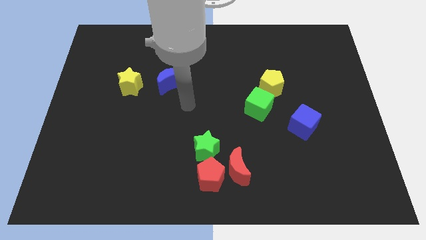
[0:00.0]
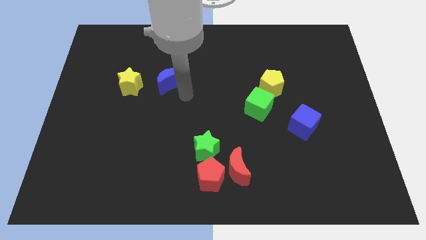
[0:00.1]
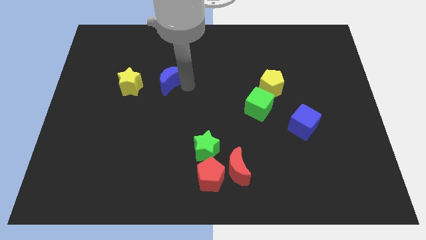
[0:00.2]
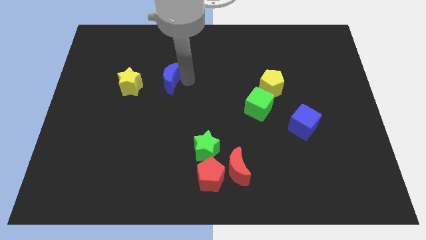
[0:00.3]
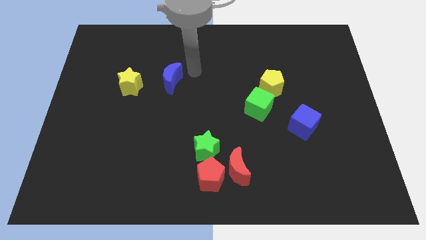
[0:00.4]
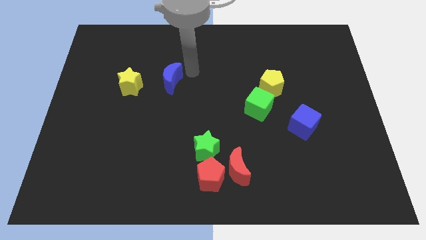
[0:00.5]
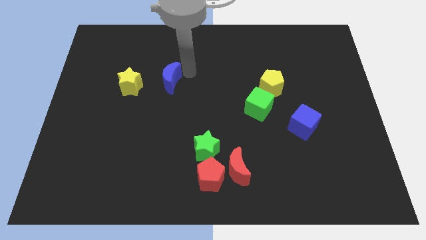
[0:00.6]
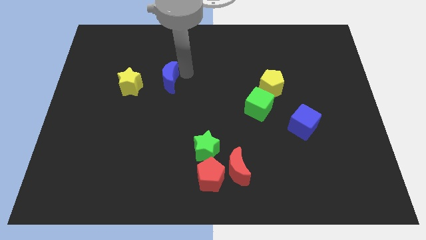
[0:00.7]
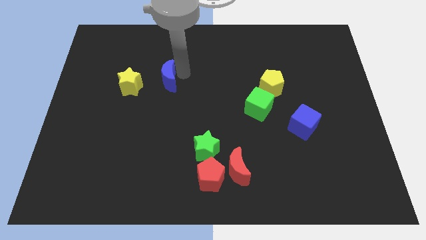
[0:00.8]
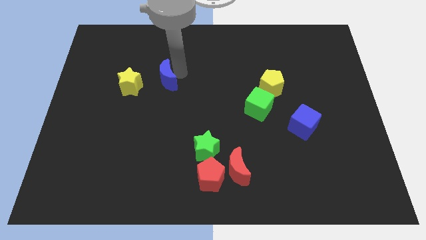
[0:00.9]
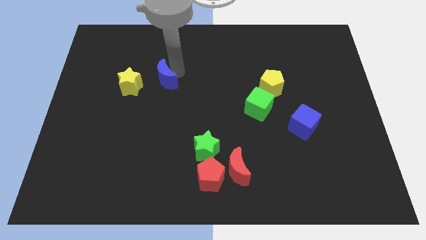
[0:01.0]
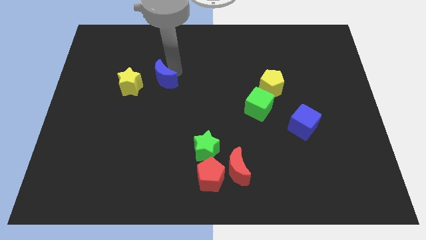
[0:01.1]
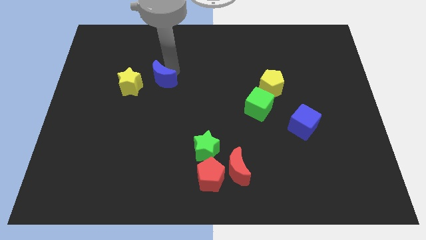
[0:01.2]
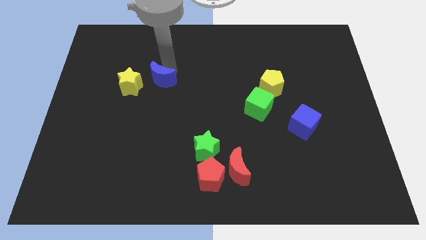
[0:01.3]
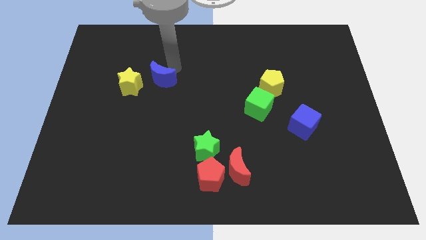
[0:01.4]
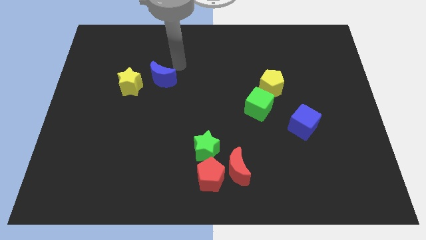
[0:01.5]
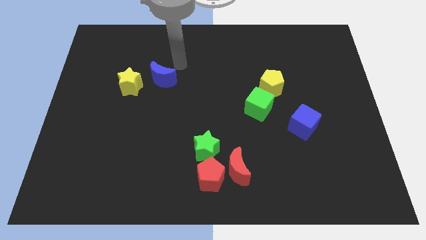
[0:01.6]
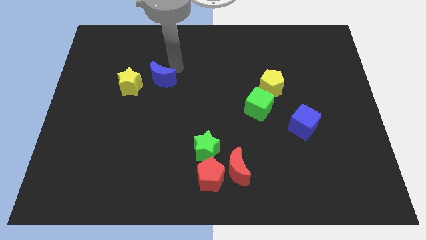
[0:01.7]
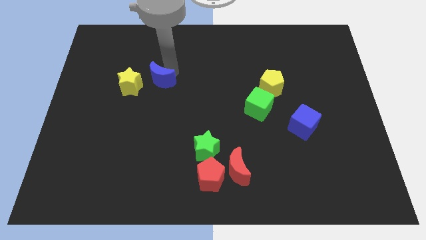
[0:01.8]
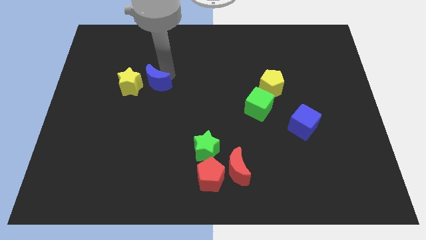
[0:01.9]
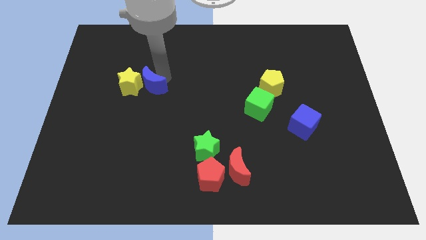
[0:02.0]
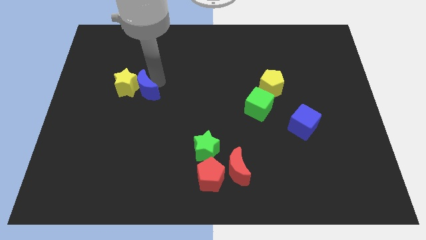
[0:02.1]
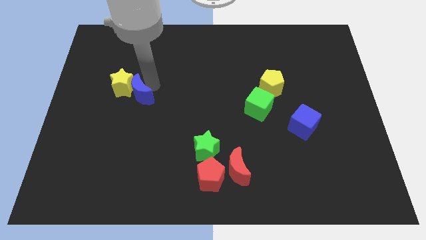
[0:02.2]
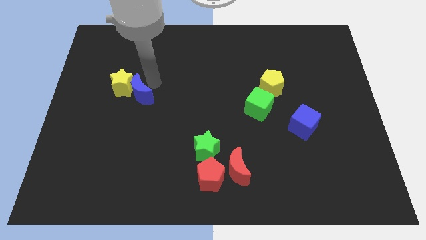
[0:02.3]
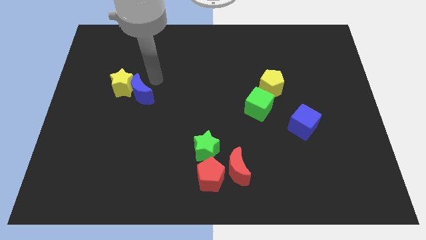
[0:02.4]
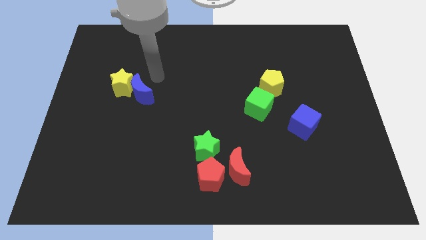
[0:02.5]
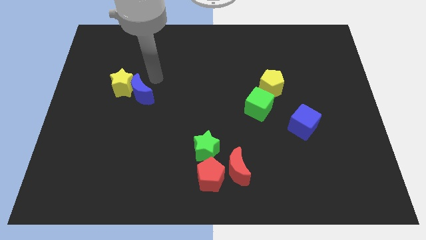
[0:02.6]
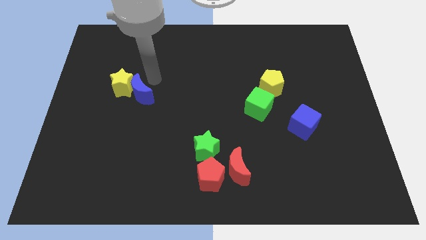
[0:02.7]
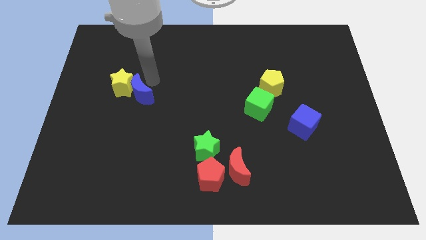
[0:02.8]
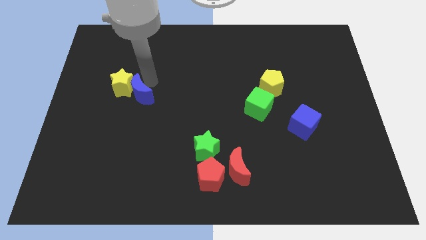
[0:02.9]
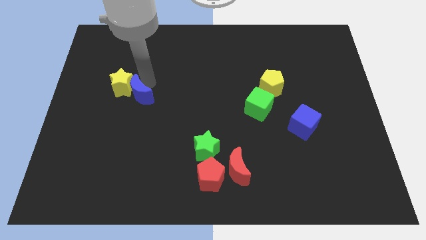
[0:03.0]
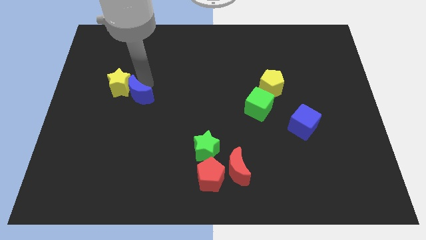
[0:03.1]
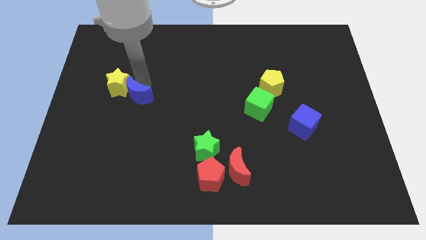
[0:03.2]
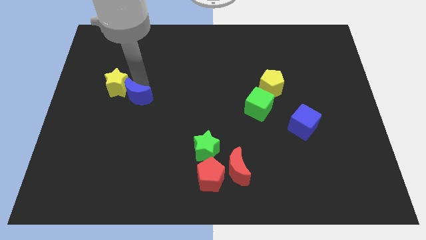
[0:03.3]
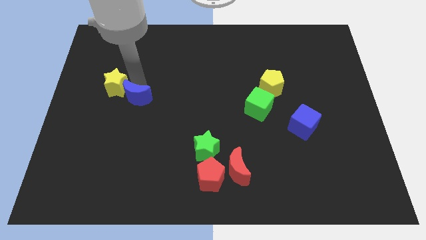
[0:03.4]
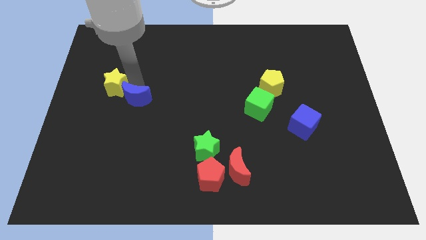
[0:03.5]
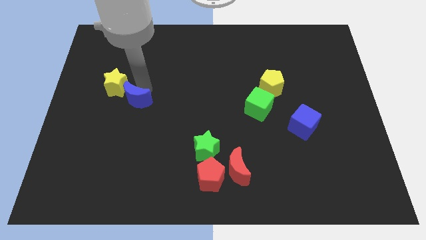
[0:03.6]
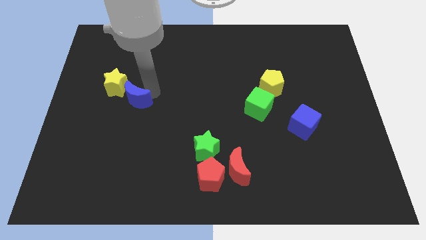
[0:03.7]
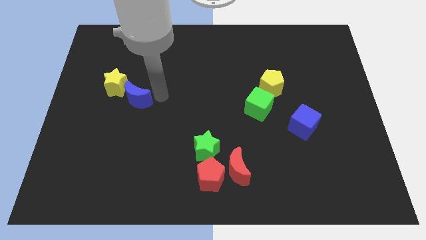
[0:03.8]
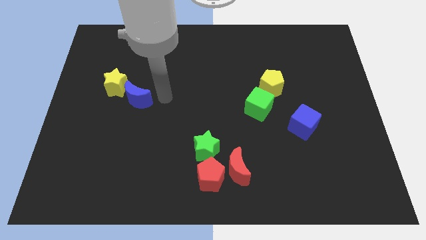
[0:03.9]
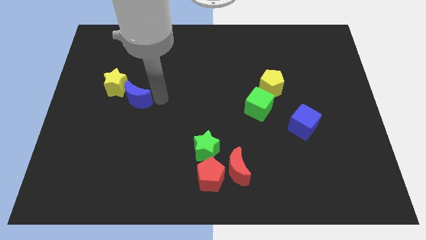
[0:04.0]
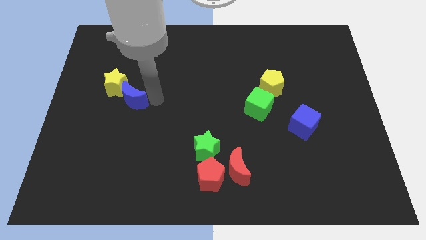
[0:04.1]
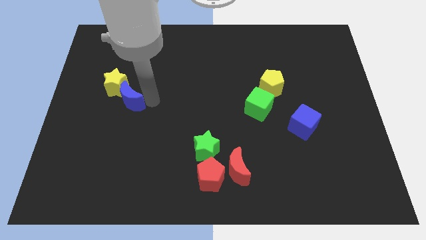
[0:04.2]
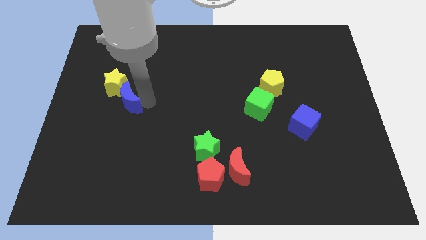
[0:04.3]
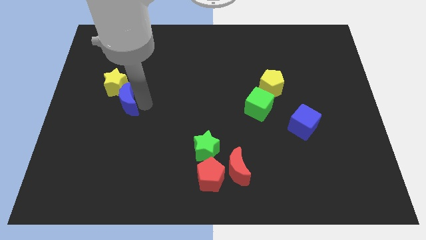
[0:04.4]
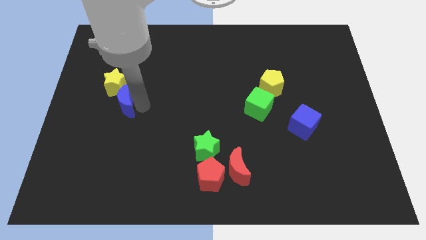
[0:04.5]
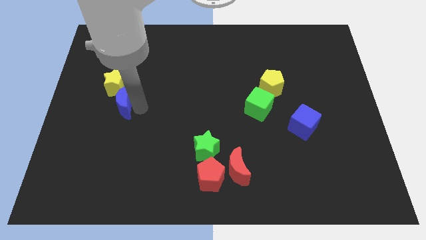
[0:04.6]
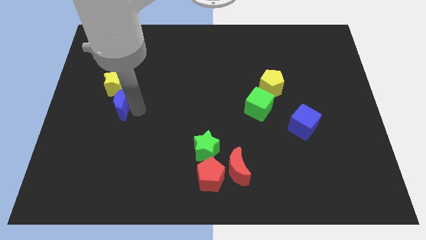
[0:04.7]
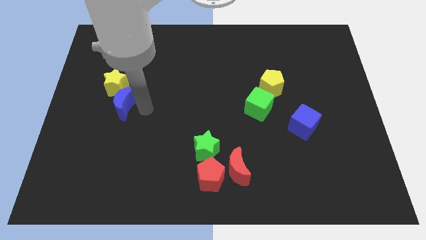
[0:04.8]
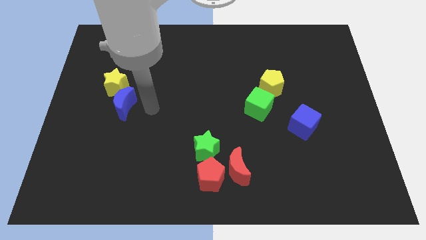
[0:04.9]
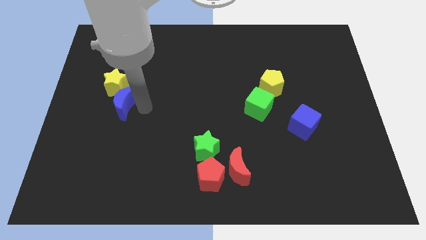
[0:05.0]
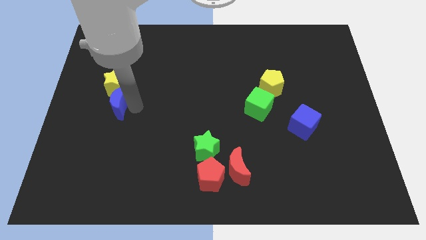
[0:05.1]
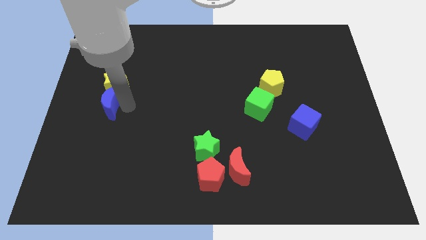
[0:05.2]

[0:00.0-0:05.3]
push the blue moon to the bottom left of the yellow star

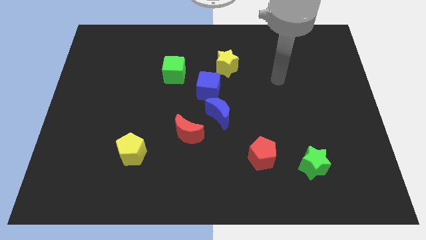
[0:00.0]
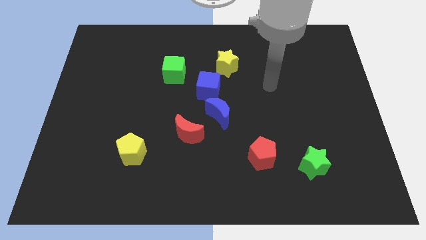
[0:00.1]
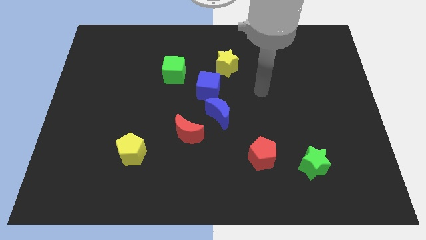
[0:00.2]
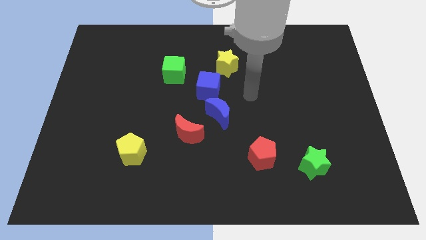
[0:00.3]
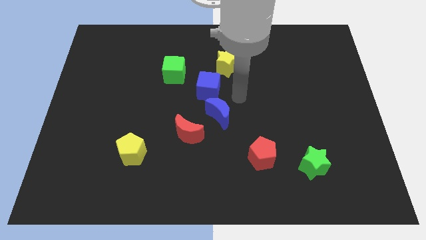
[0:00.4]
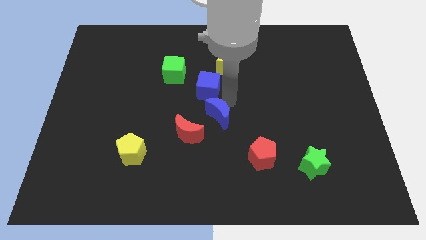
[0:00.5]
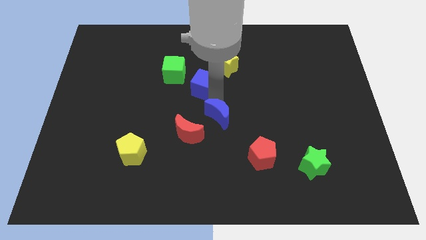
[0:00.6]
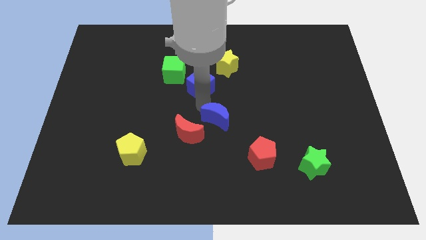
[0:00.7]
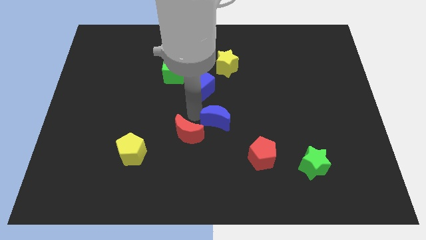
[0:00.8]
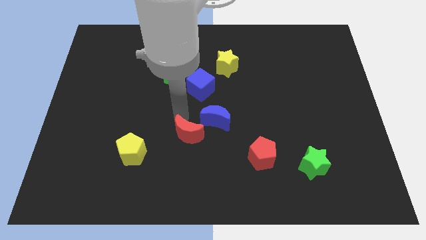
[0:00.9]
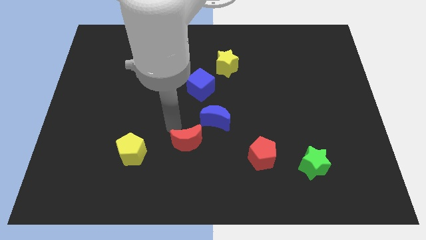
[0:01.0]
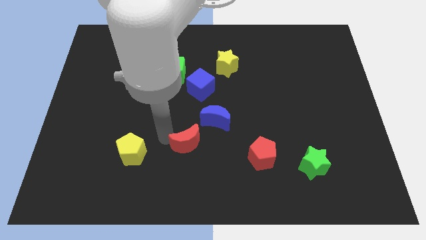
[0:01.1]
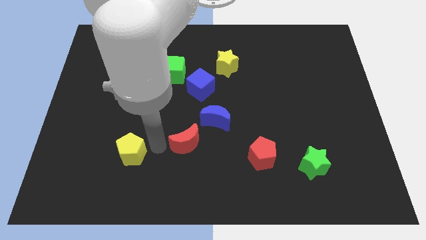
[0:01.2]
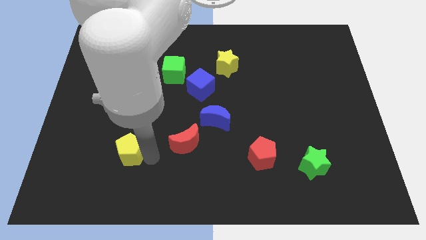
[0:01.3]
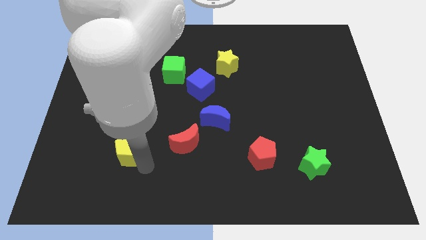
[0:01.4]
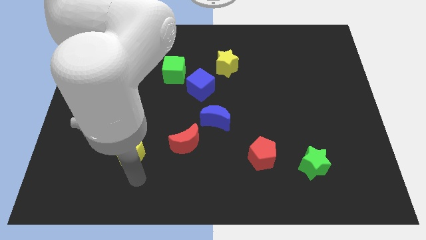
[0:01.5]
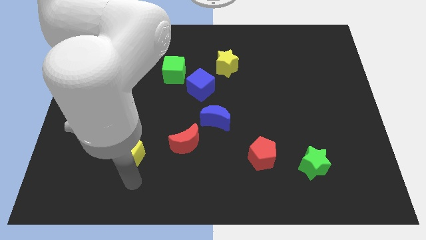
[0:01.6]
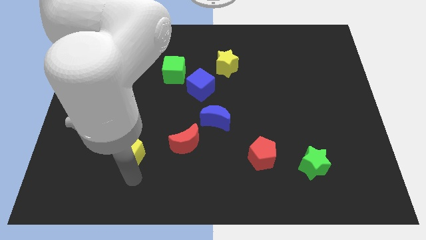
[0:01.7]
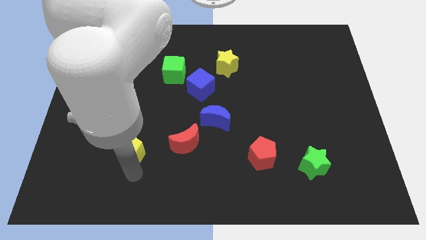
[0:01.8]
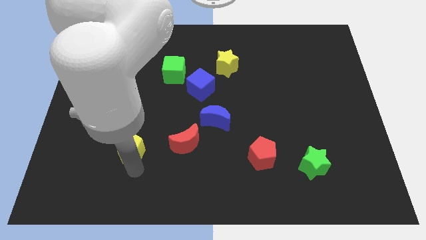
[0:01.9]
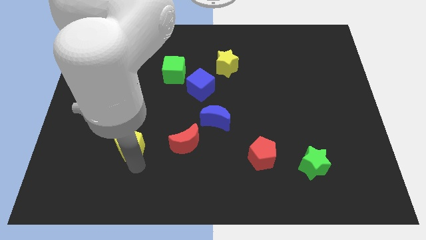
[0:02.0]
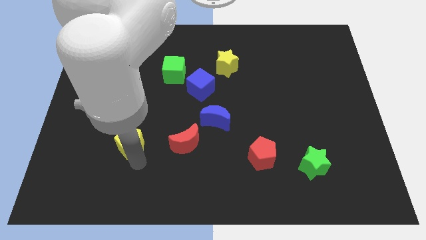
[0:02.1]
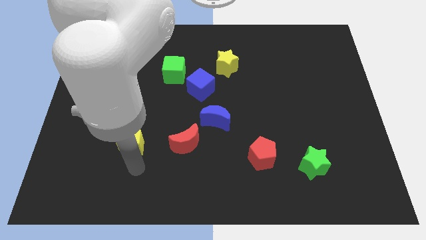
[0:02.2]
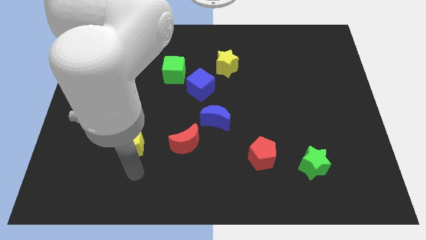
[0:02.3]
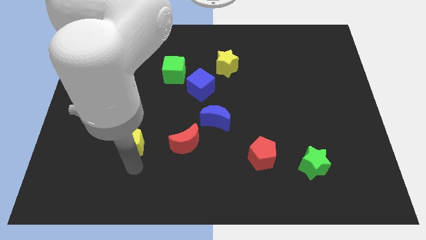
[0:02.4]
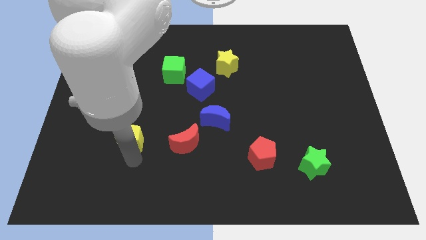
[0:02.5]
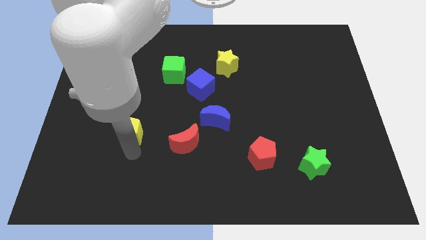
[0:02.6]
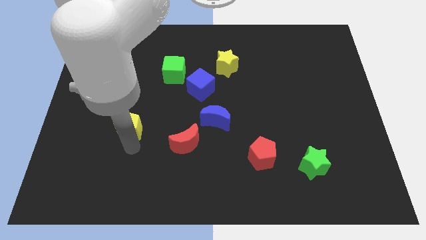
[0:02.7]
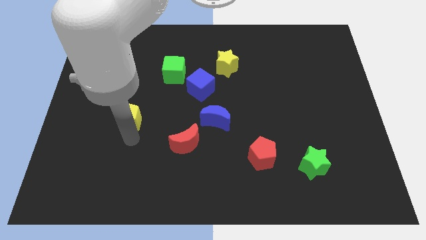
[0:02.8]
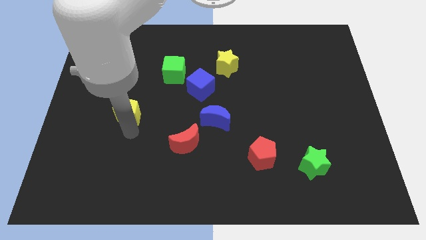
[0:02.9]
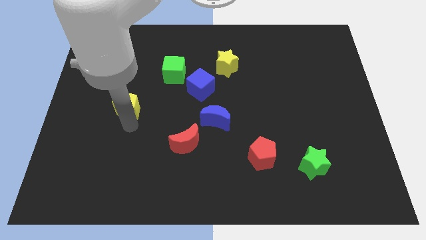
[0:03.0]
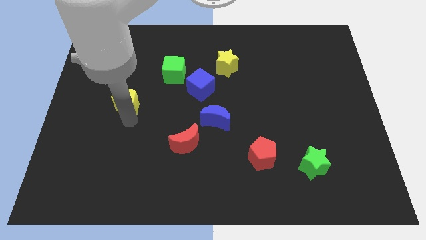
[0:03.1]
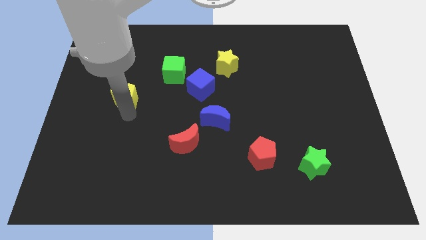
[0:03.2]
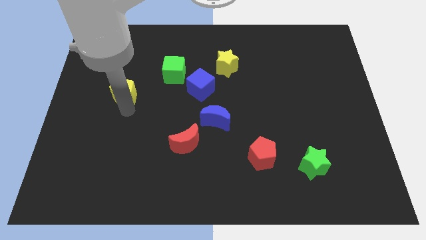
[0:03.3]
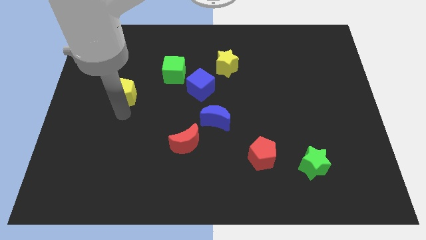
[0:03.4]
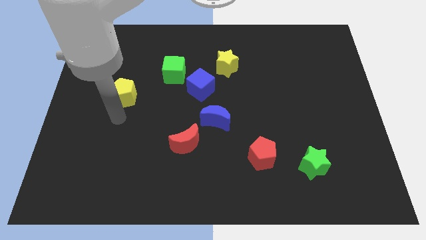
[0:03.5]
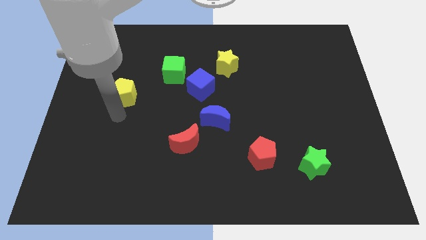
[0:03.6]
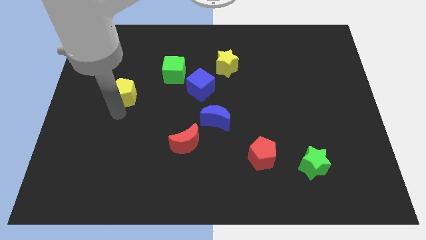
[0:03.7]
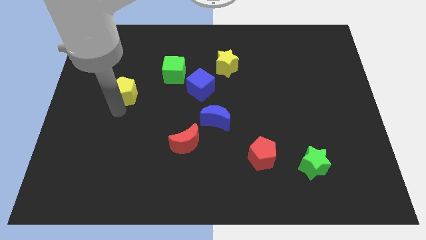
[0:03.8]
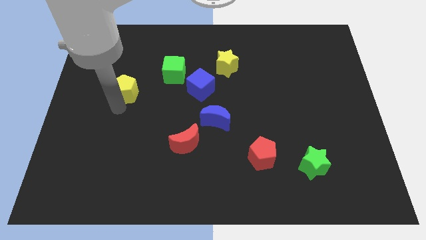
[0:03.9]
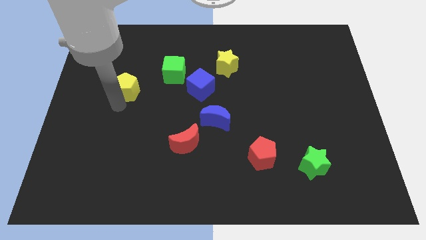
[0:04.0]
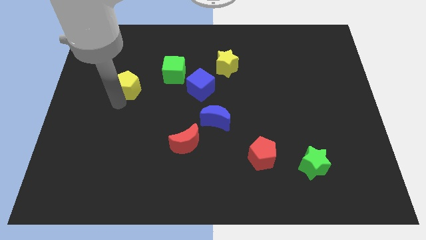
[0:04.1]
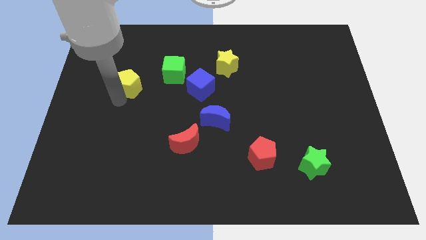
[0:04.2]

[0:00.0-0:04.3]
push the yellow pentagon left of the green cube
